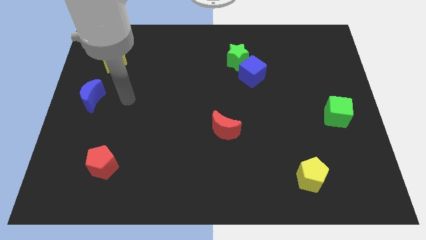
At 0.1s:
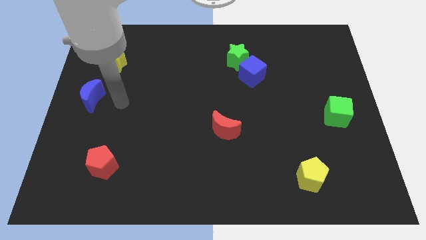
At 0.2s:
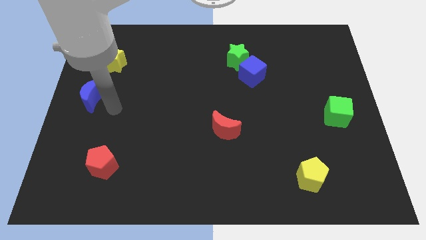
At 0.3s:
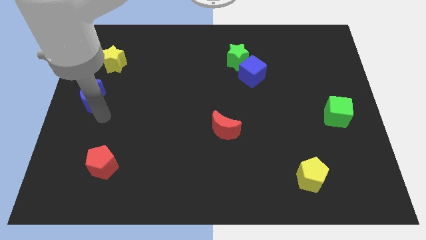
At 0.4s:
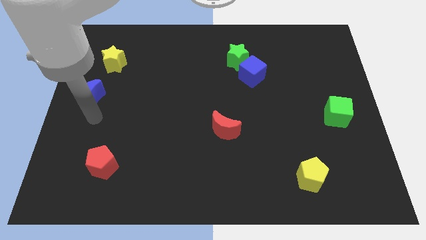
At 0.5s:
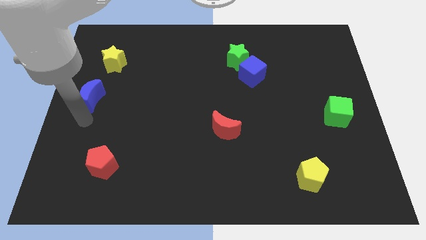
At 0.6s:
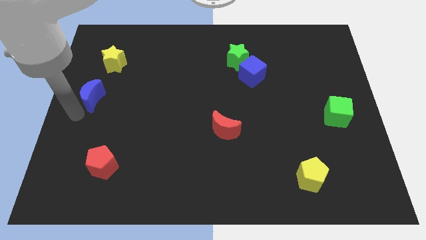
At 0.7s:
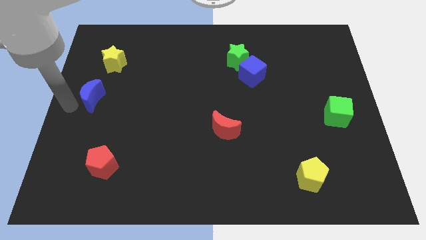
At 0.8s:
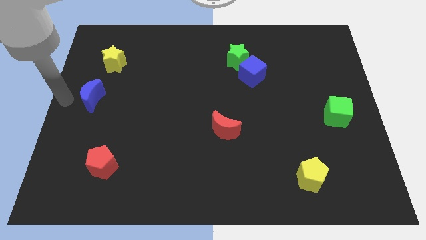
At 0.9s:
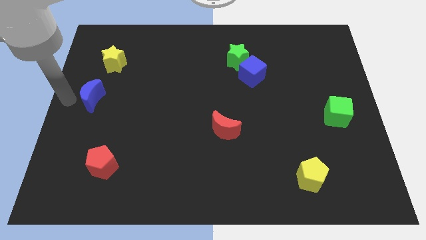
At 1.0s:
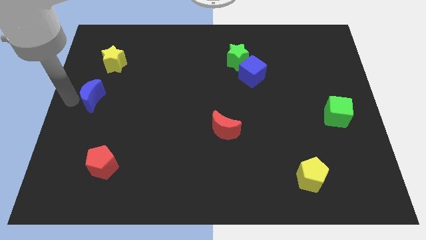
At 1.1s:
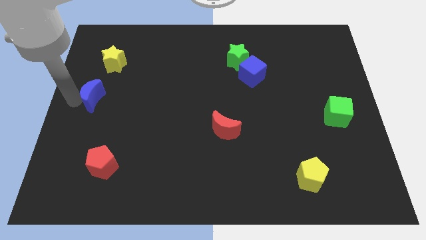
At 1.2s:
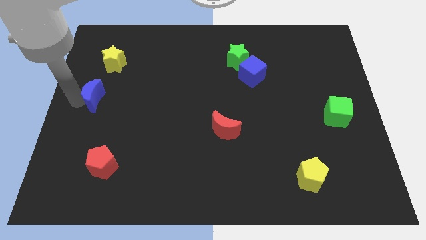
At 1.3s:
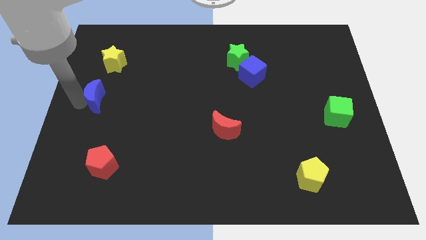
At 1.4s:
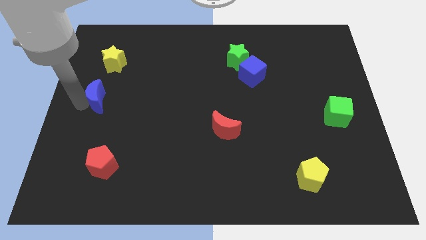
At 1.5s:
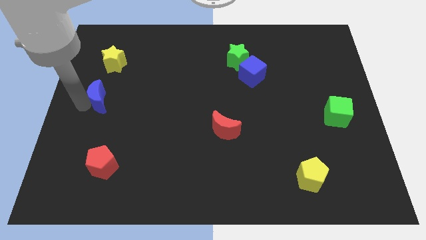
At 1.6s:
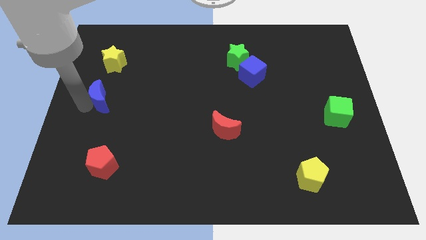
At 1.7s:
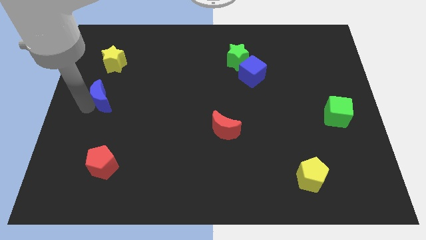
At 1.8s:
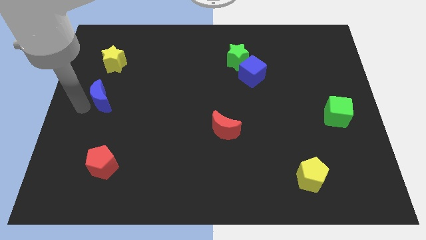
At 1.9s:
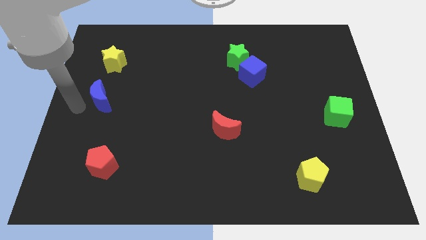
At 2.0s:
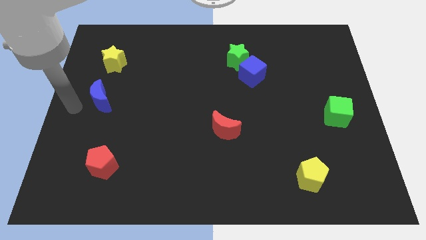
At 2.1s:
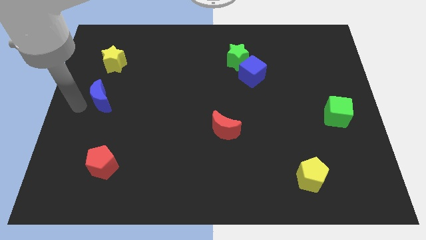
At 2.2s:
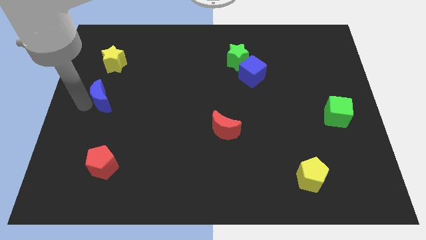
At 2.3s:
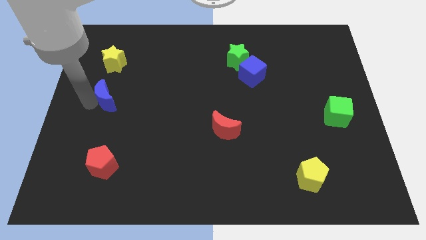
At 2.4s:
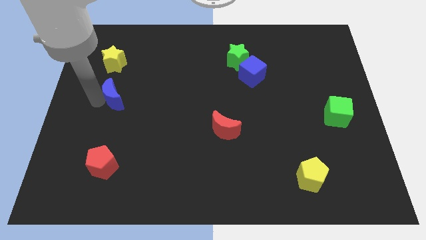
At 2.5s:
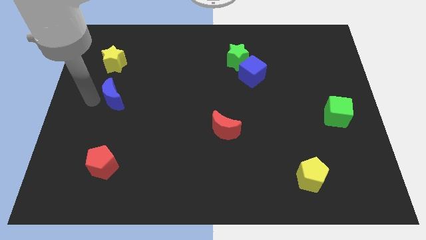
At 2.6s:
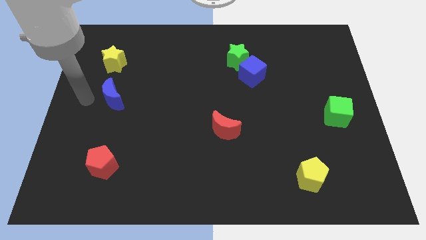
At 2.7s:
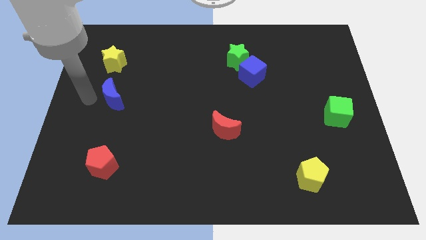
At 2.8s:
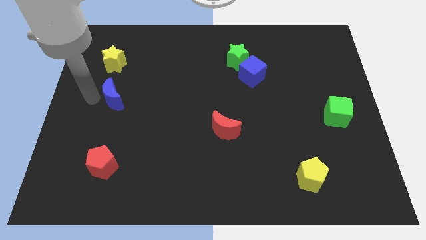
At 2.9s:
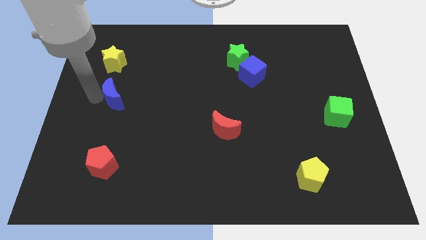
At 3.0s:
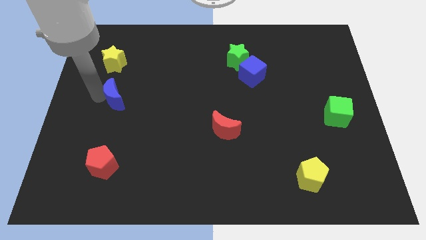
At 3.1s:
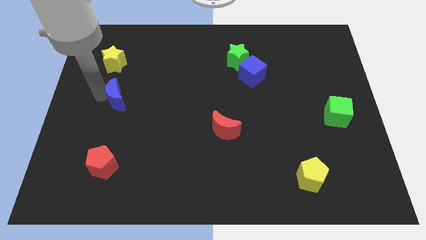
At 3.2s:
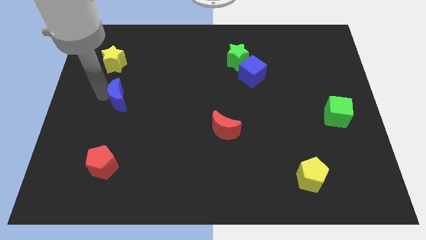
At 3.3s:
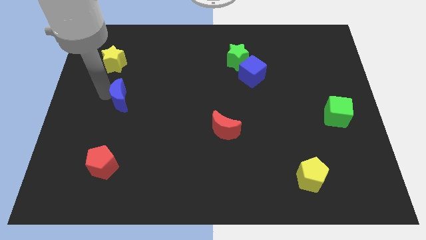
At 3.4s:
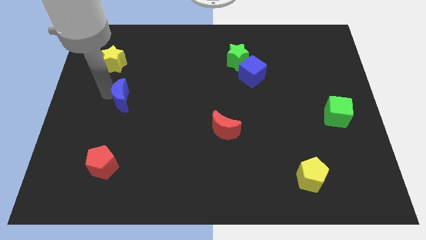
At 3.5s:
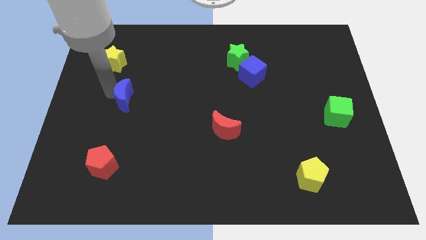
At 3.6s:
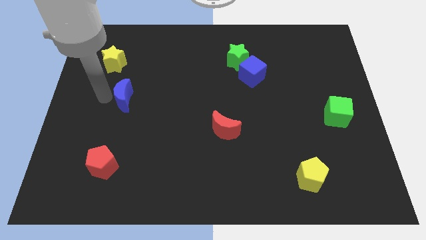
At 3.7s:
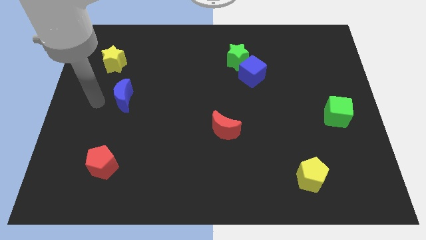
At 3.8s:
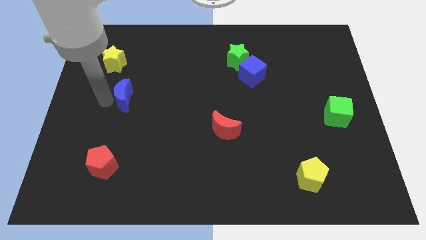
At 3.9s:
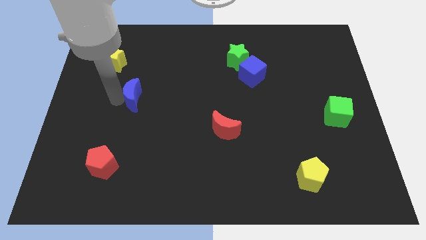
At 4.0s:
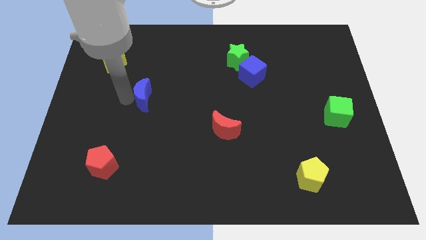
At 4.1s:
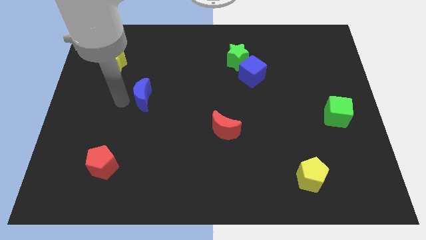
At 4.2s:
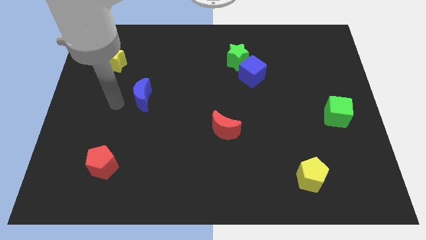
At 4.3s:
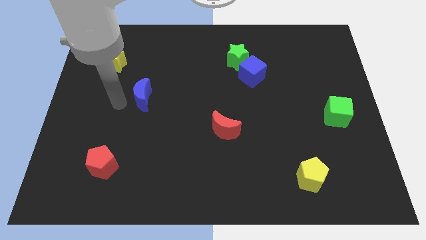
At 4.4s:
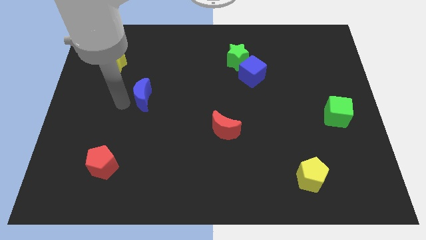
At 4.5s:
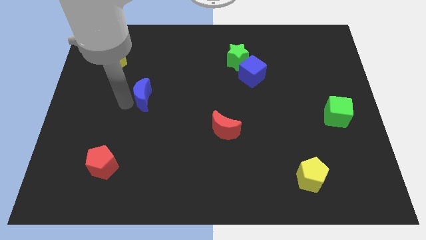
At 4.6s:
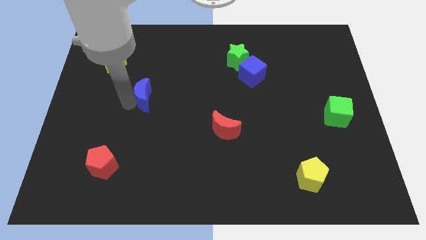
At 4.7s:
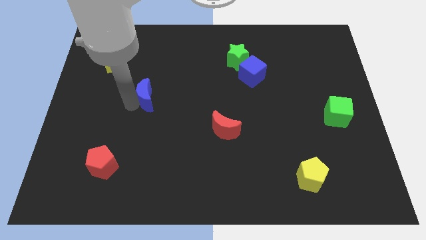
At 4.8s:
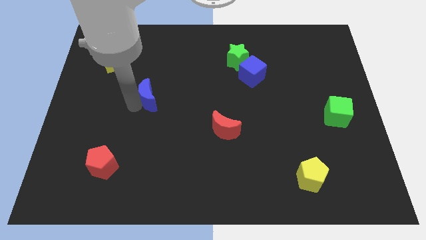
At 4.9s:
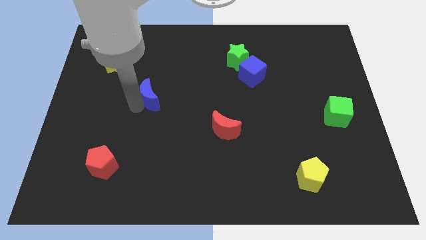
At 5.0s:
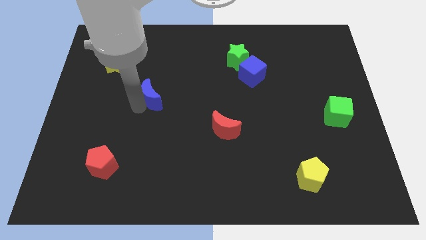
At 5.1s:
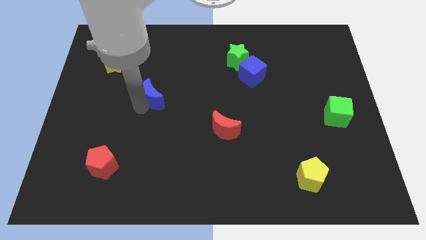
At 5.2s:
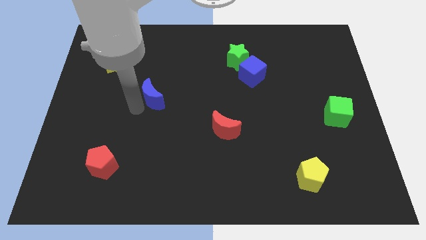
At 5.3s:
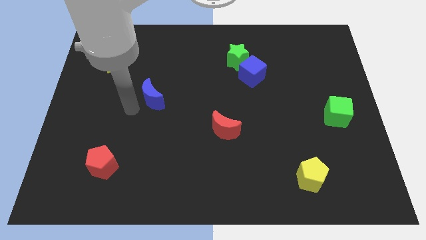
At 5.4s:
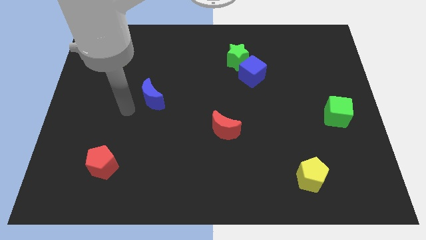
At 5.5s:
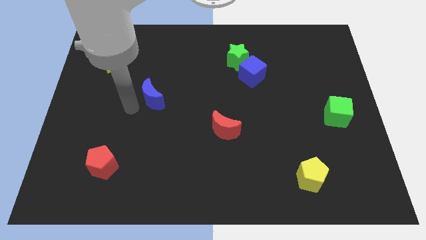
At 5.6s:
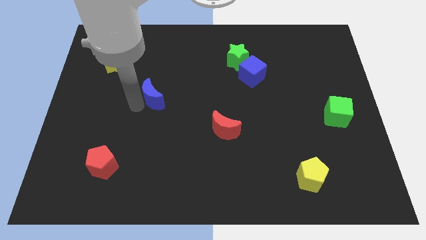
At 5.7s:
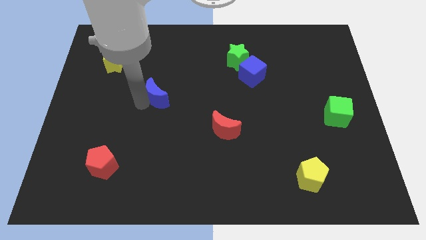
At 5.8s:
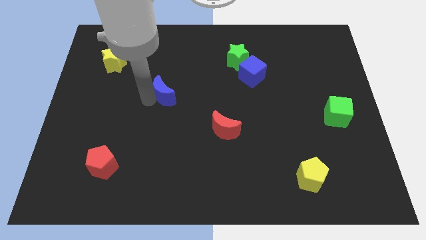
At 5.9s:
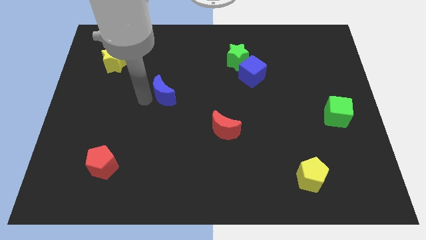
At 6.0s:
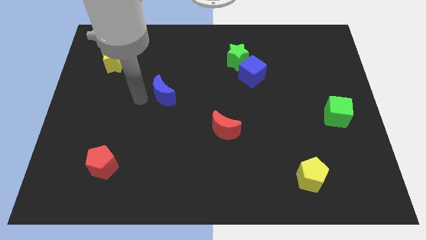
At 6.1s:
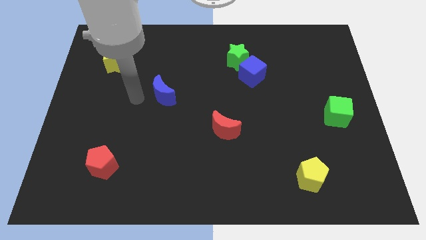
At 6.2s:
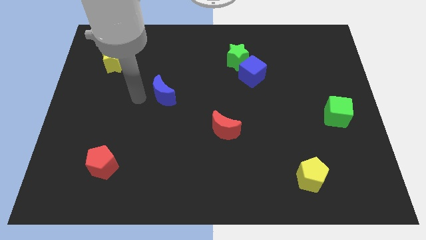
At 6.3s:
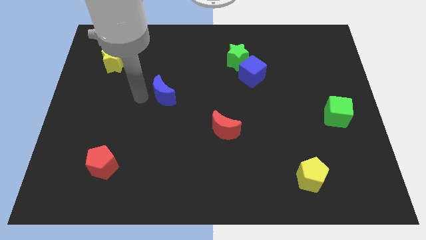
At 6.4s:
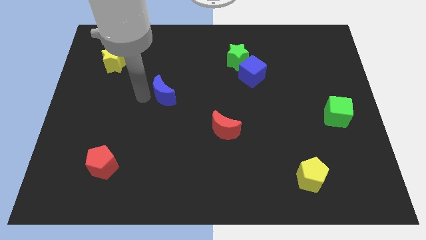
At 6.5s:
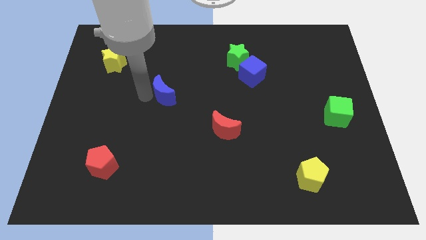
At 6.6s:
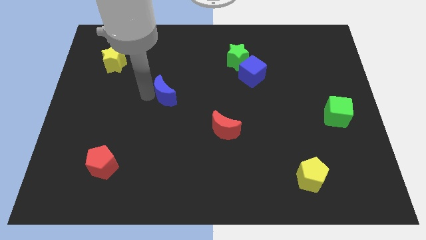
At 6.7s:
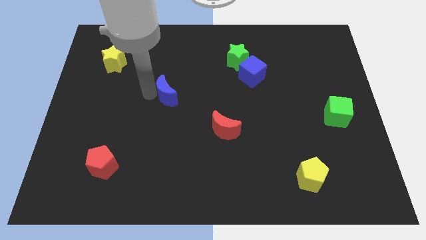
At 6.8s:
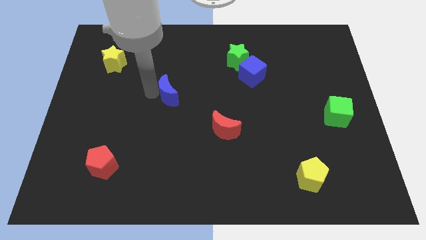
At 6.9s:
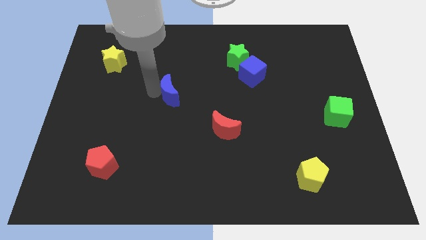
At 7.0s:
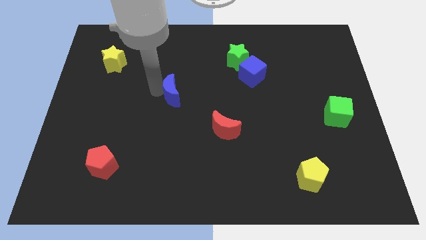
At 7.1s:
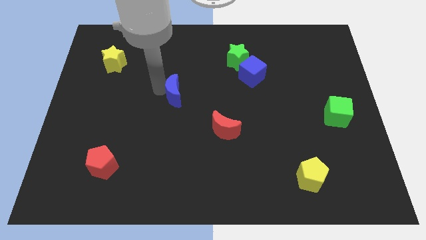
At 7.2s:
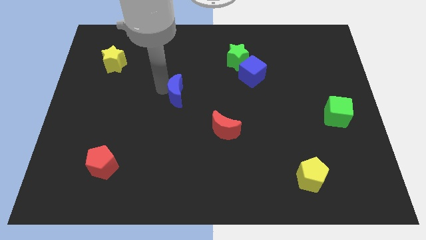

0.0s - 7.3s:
push the blue moon to the right

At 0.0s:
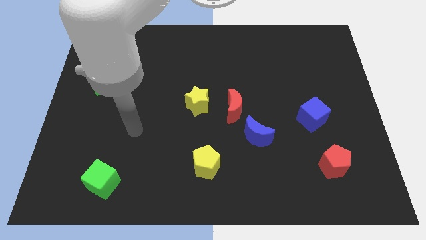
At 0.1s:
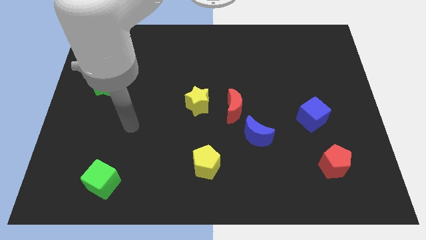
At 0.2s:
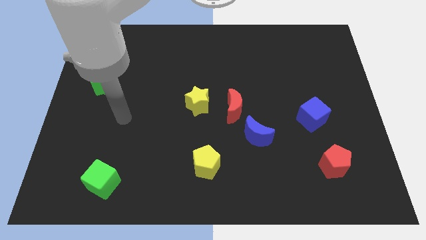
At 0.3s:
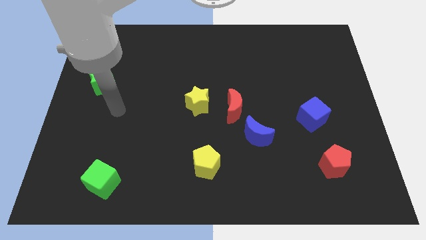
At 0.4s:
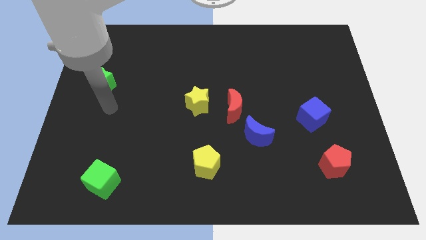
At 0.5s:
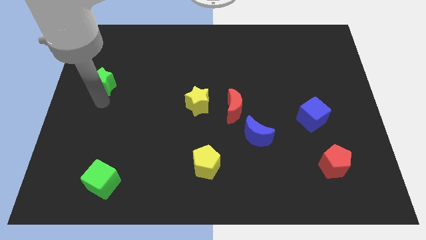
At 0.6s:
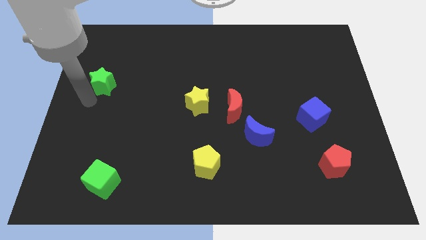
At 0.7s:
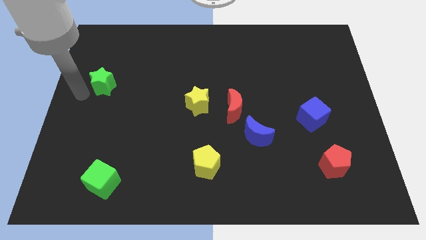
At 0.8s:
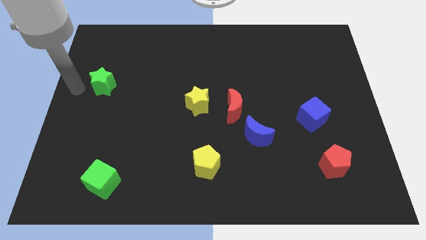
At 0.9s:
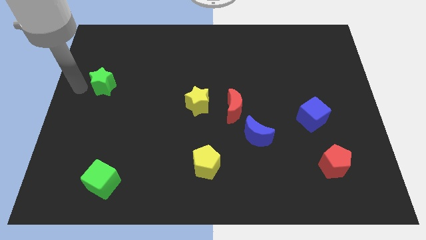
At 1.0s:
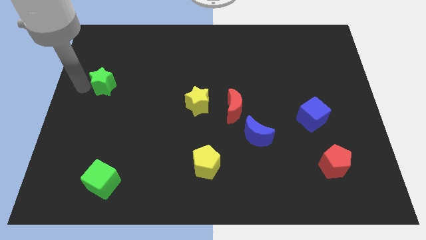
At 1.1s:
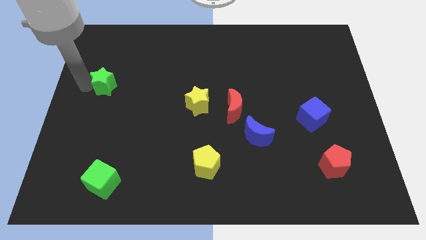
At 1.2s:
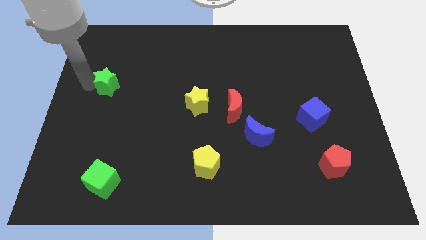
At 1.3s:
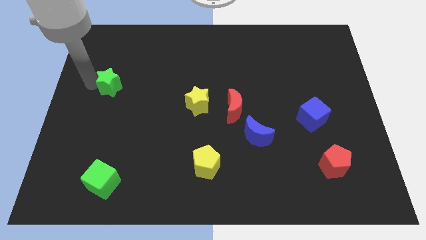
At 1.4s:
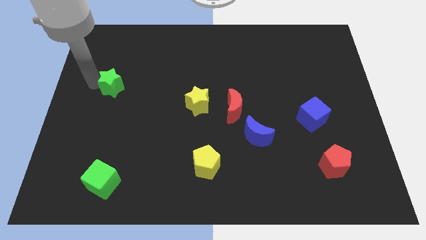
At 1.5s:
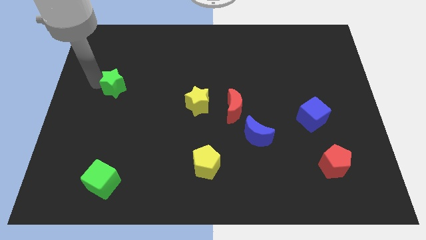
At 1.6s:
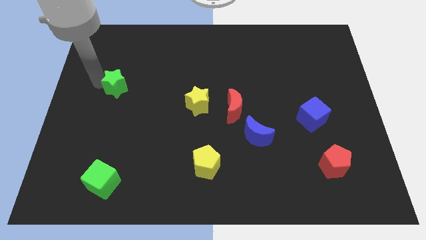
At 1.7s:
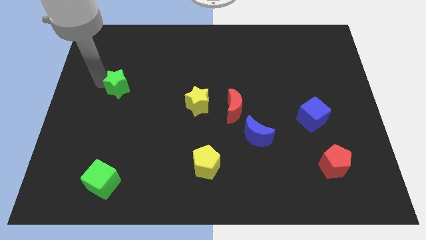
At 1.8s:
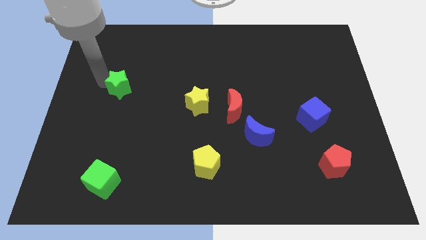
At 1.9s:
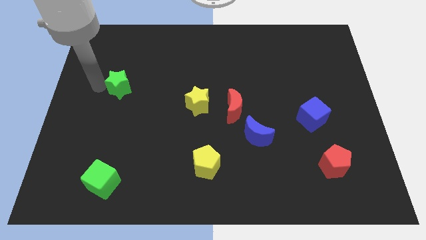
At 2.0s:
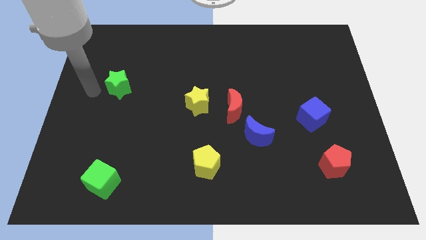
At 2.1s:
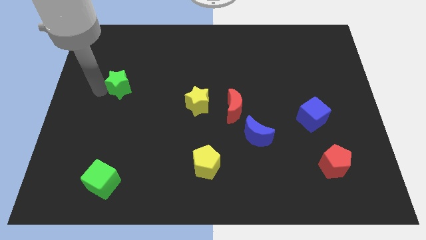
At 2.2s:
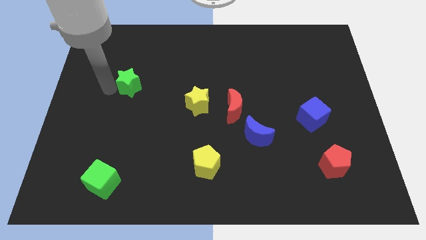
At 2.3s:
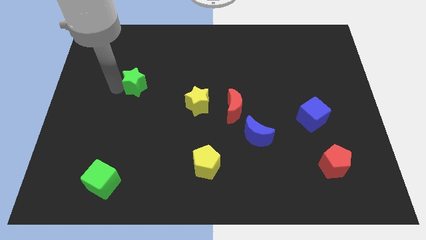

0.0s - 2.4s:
push the green star to the right a little
